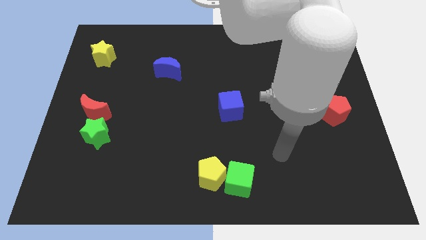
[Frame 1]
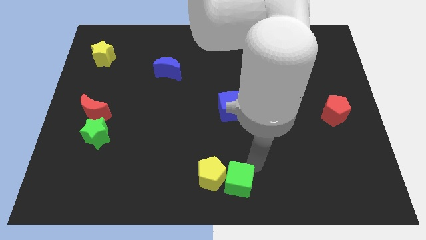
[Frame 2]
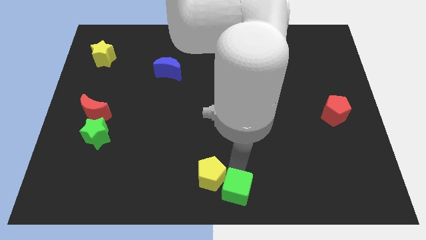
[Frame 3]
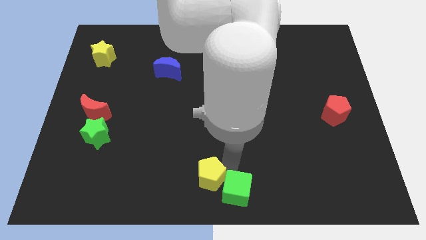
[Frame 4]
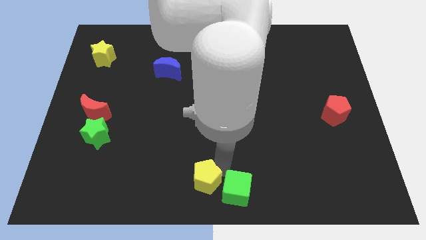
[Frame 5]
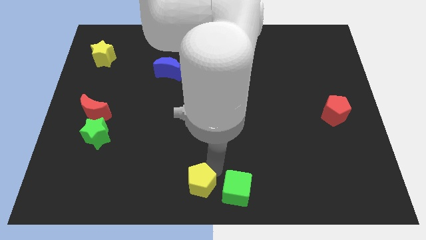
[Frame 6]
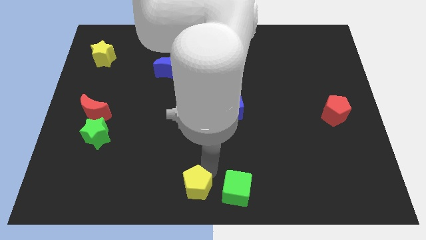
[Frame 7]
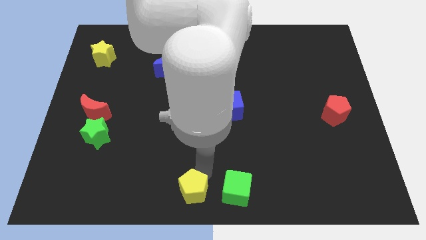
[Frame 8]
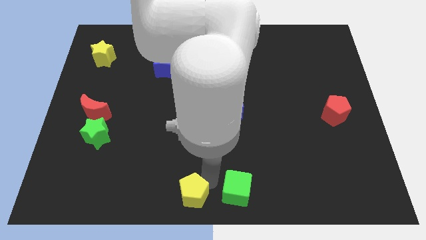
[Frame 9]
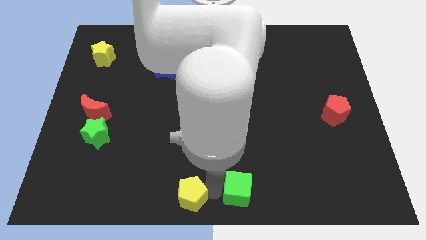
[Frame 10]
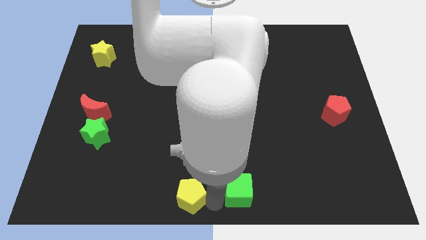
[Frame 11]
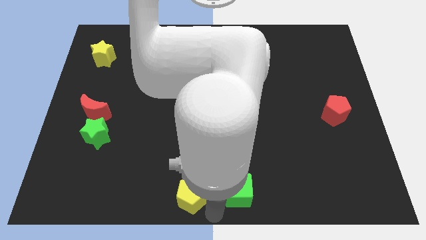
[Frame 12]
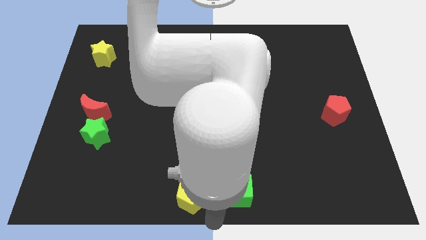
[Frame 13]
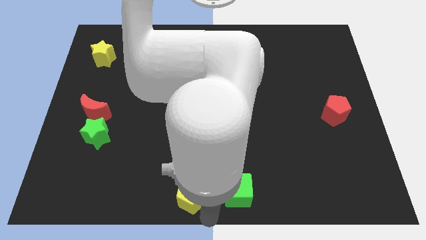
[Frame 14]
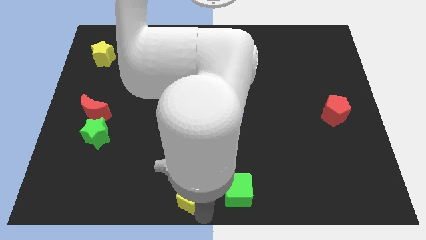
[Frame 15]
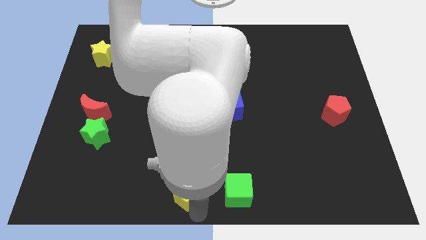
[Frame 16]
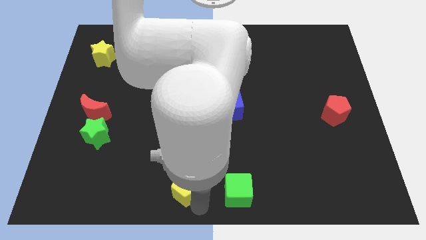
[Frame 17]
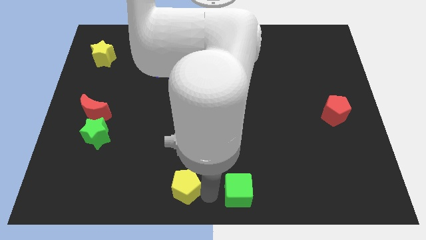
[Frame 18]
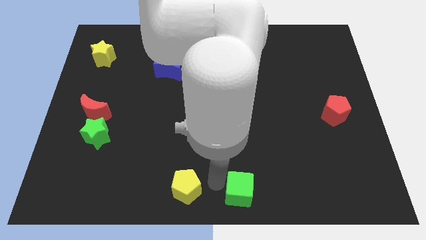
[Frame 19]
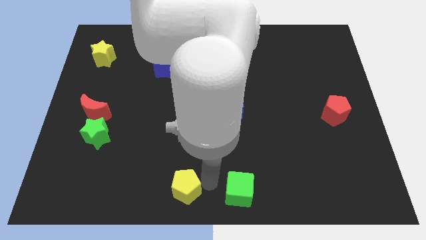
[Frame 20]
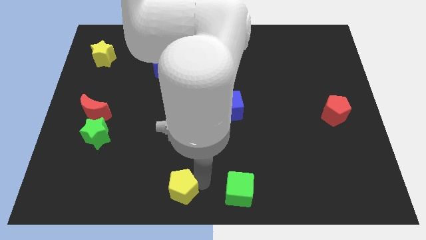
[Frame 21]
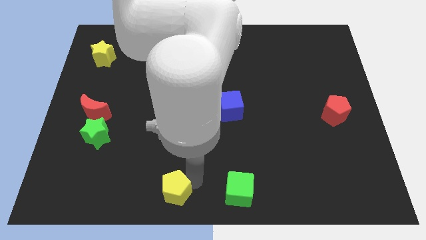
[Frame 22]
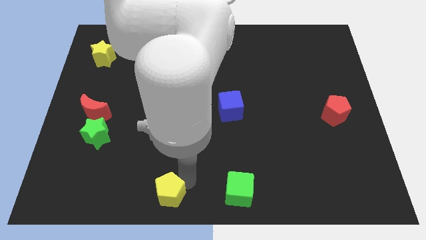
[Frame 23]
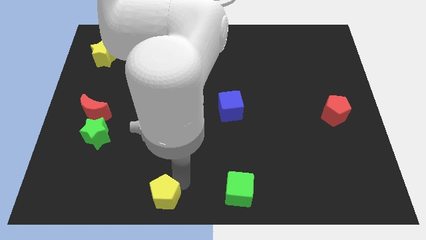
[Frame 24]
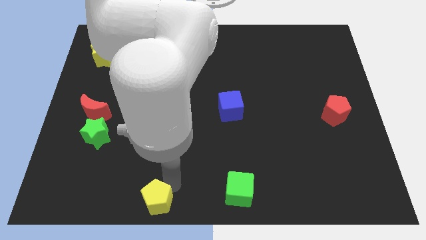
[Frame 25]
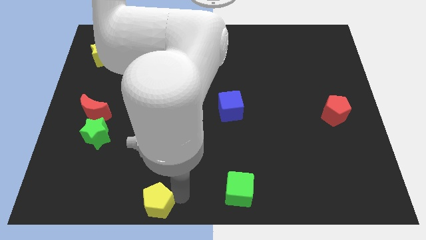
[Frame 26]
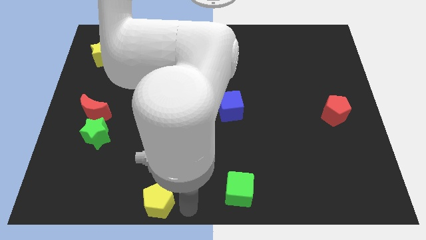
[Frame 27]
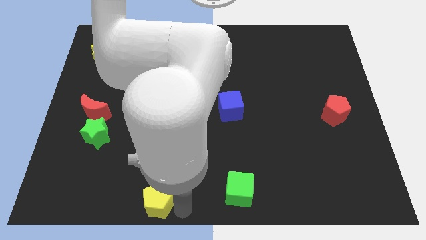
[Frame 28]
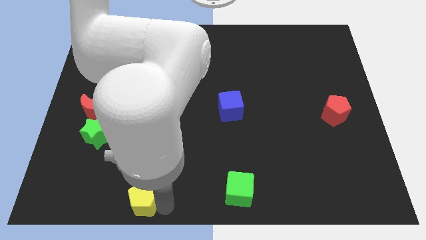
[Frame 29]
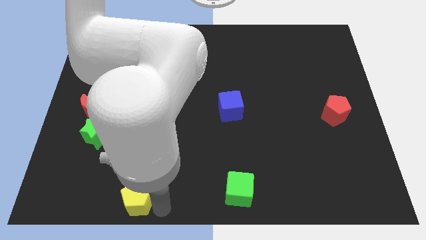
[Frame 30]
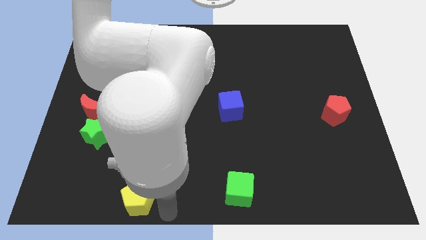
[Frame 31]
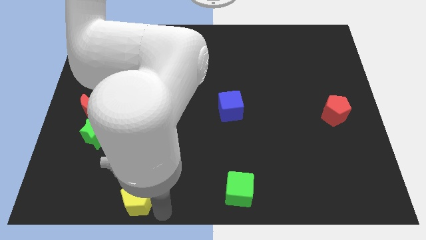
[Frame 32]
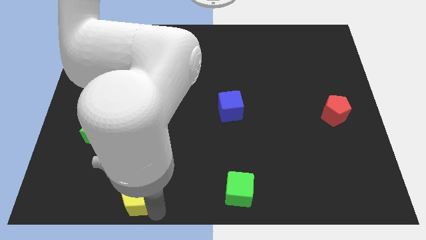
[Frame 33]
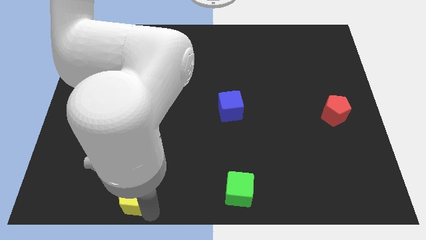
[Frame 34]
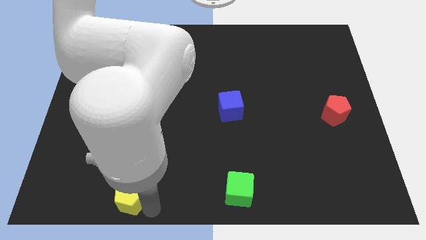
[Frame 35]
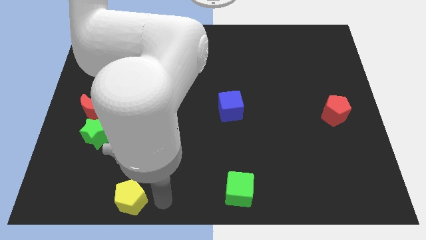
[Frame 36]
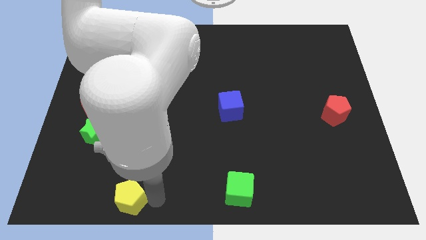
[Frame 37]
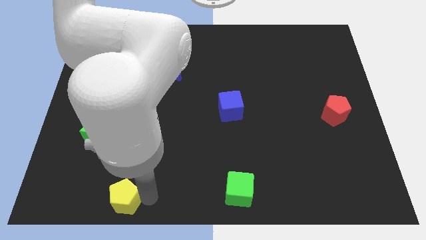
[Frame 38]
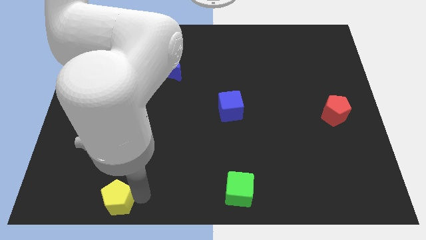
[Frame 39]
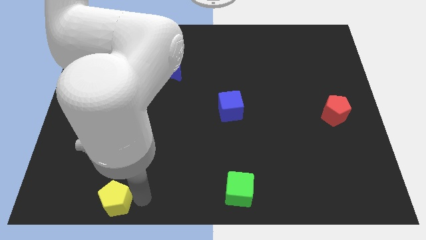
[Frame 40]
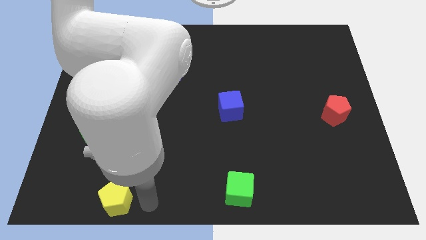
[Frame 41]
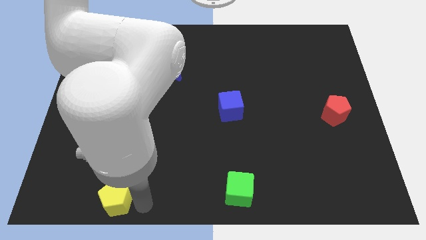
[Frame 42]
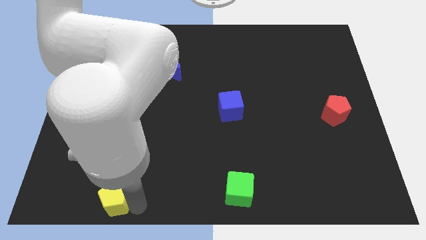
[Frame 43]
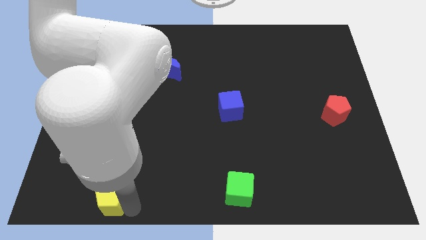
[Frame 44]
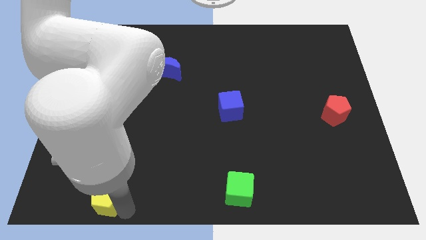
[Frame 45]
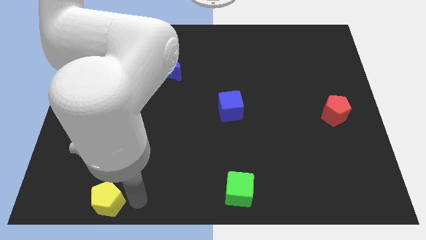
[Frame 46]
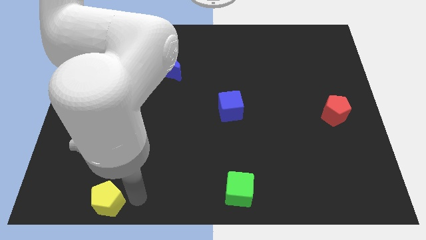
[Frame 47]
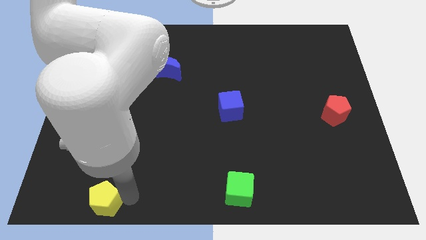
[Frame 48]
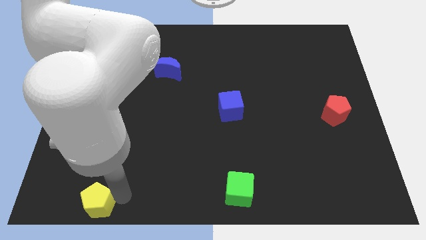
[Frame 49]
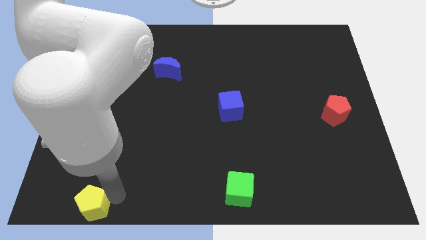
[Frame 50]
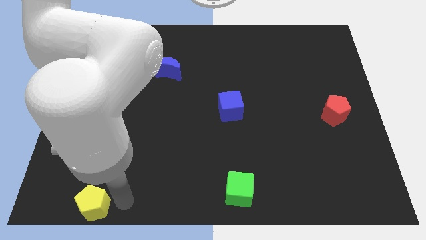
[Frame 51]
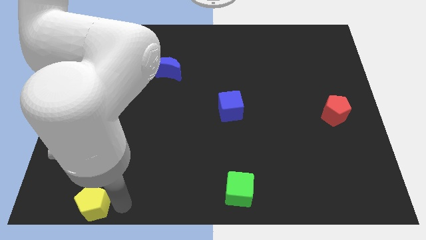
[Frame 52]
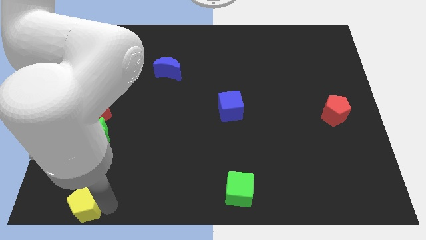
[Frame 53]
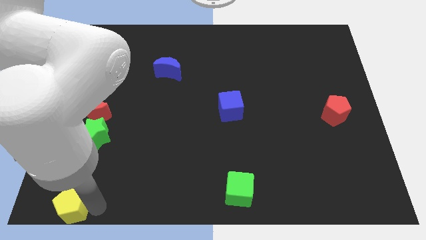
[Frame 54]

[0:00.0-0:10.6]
move the yellow pentagon to the bottom left of the board

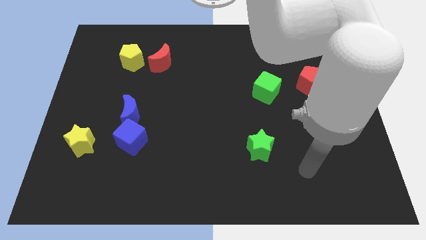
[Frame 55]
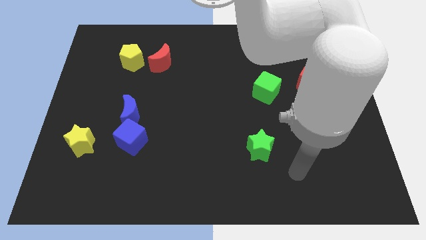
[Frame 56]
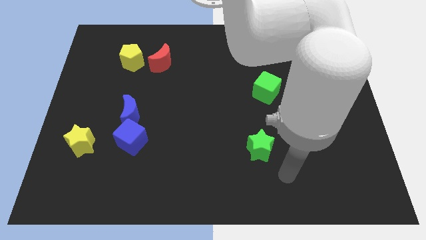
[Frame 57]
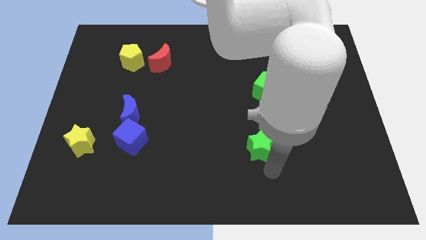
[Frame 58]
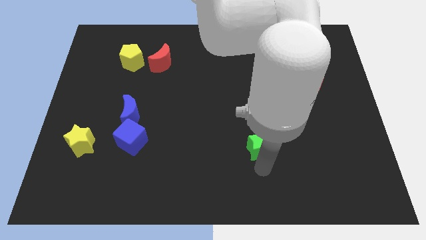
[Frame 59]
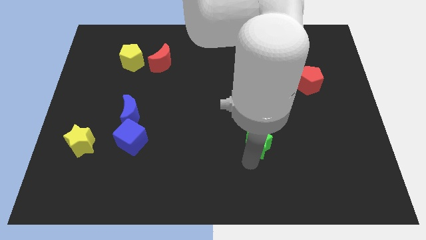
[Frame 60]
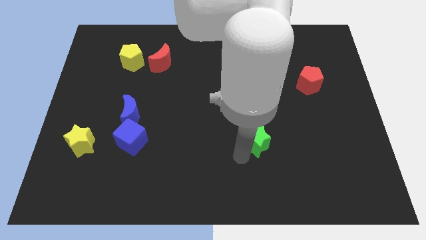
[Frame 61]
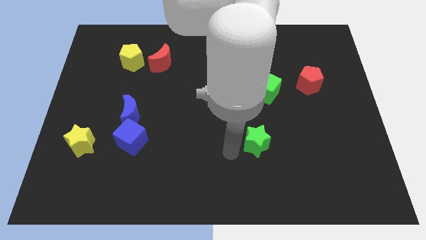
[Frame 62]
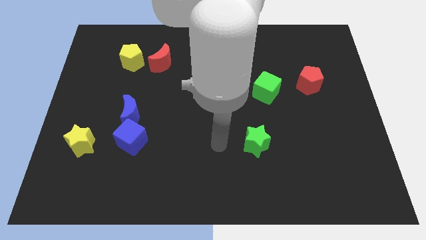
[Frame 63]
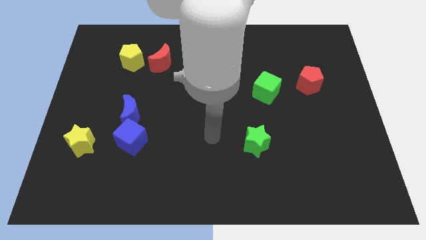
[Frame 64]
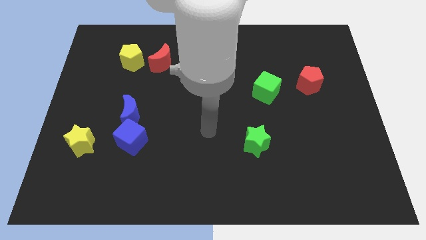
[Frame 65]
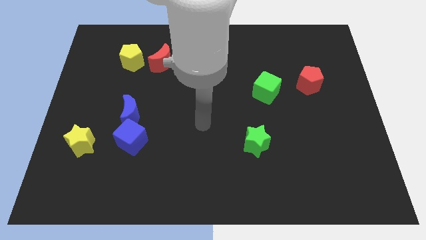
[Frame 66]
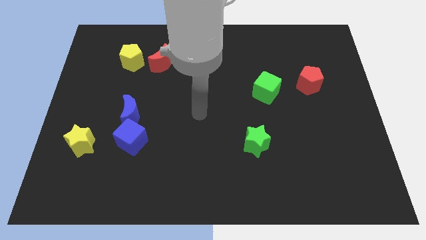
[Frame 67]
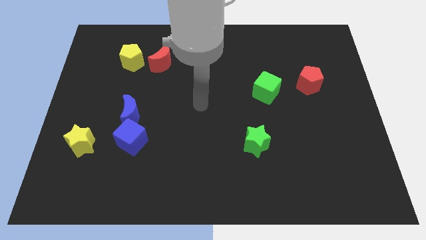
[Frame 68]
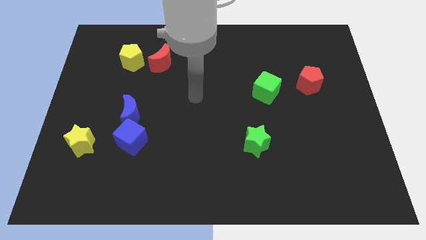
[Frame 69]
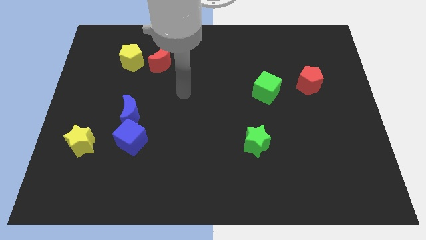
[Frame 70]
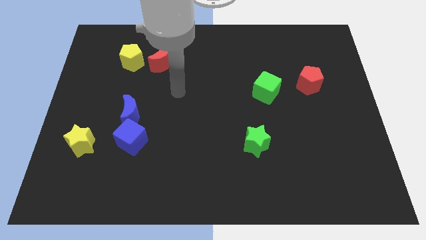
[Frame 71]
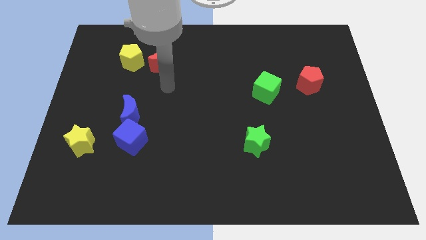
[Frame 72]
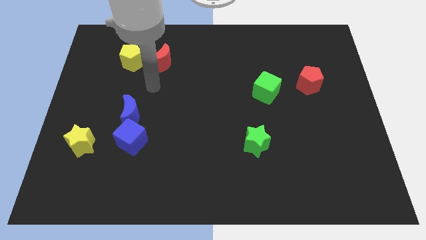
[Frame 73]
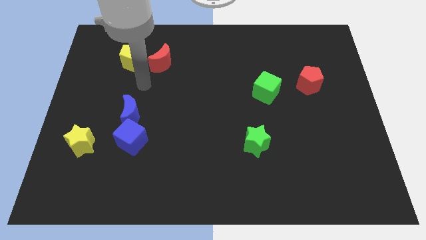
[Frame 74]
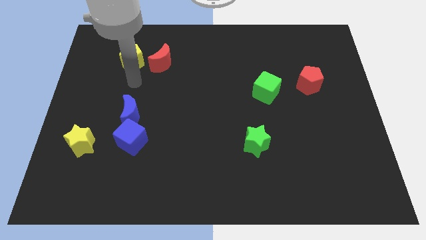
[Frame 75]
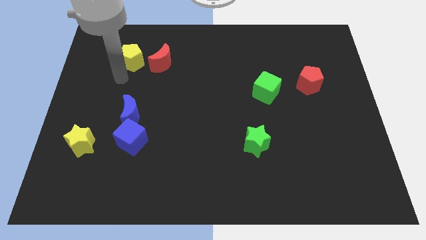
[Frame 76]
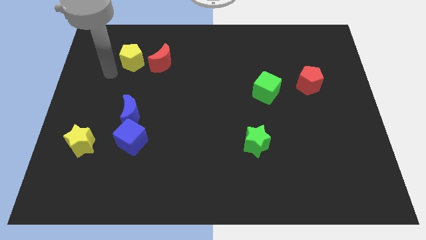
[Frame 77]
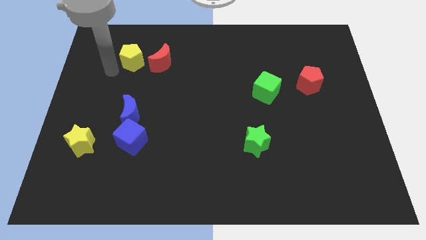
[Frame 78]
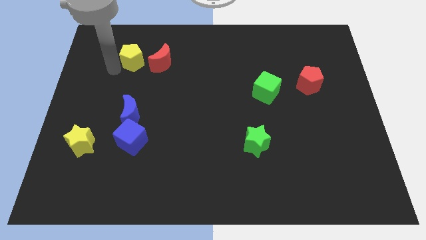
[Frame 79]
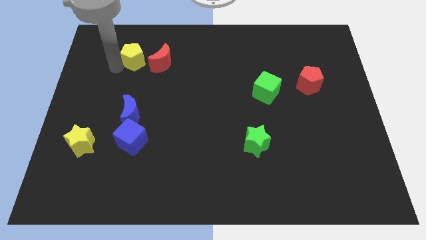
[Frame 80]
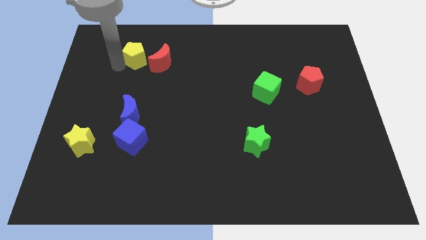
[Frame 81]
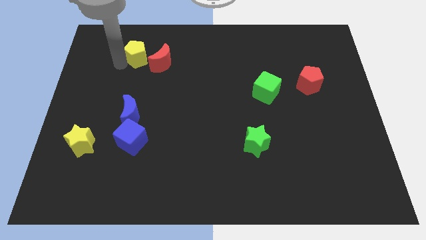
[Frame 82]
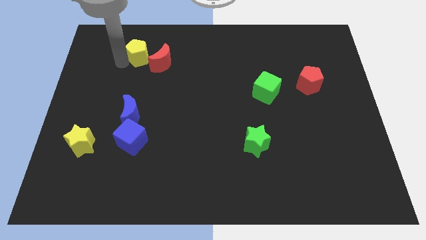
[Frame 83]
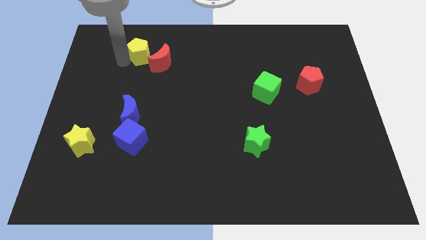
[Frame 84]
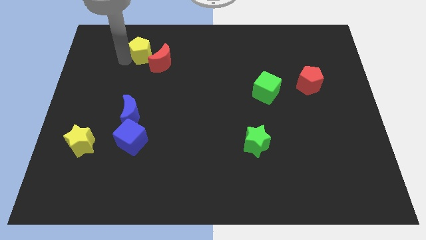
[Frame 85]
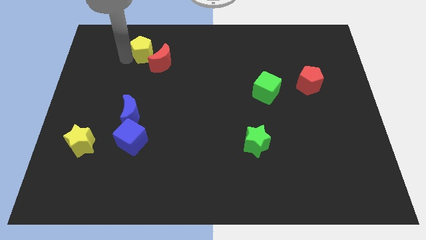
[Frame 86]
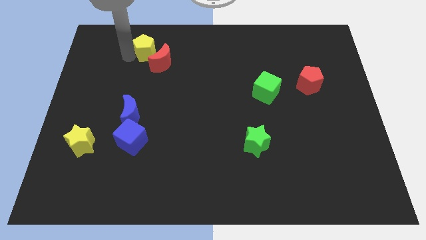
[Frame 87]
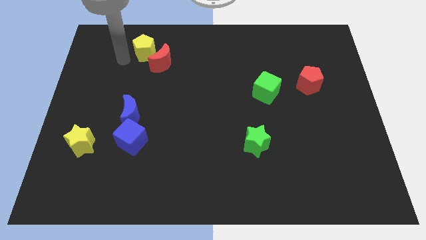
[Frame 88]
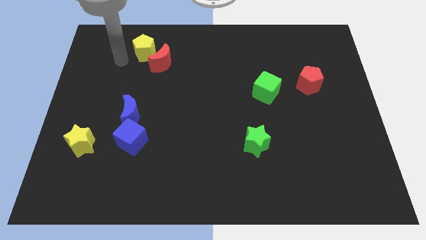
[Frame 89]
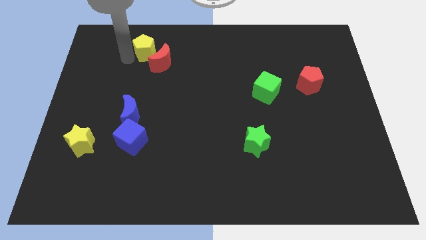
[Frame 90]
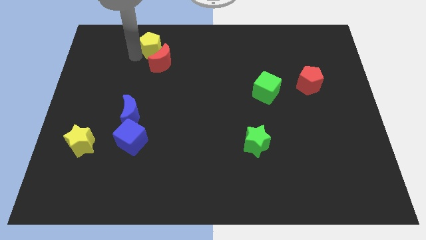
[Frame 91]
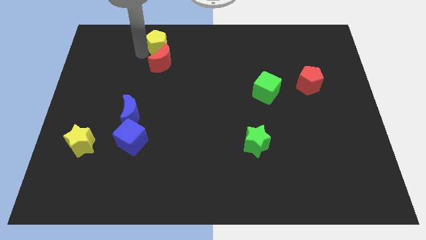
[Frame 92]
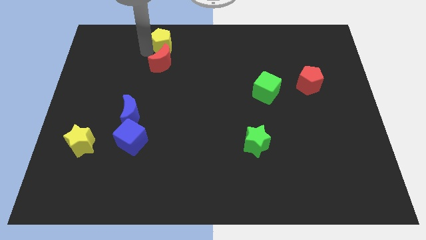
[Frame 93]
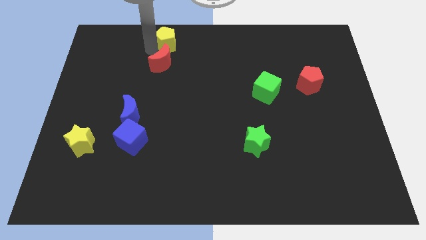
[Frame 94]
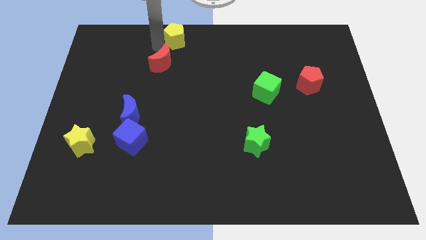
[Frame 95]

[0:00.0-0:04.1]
put the yellow pentagon to the top side
